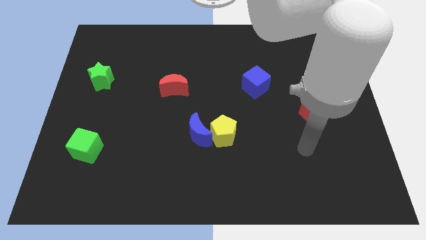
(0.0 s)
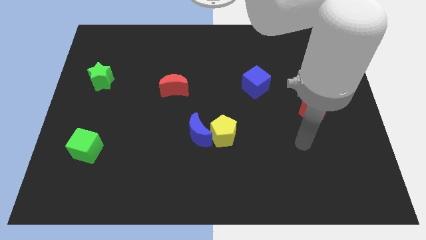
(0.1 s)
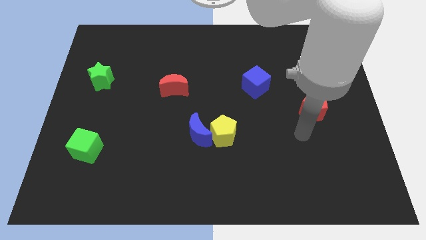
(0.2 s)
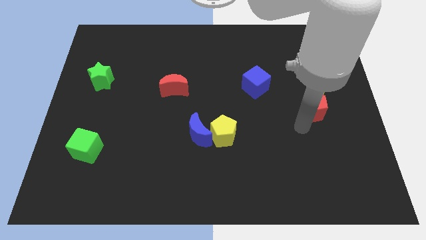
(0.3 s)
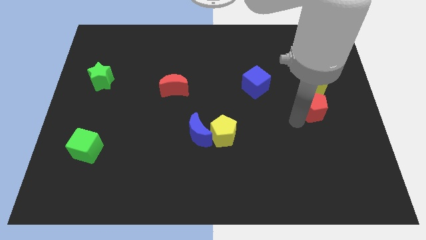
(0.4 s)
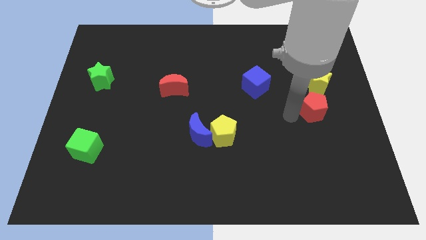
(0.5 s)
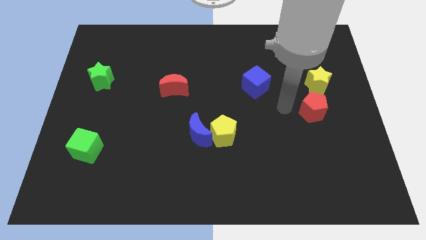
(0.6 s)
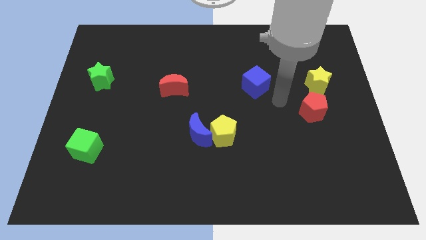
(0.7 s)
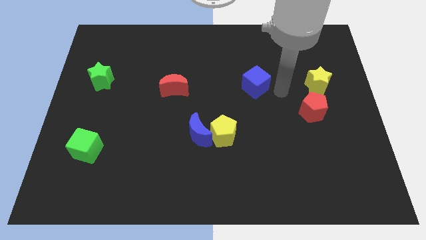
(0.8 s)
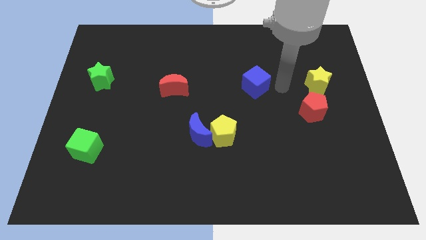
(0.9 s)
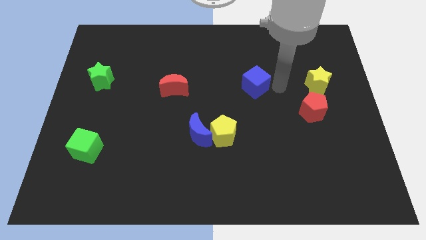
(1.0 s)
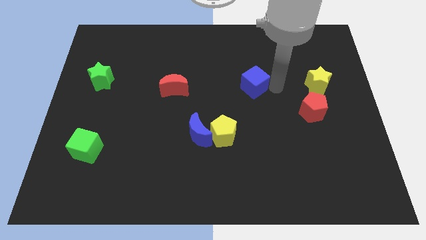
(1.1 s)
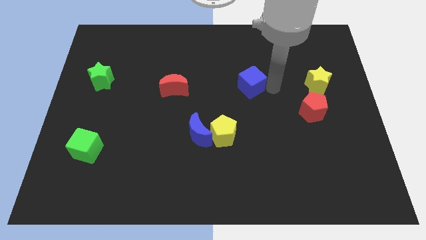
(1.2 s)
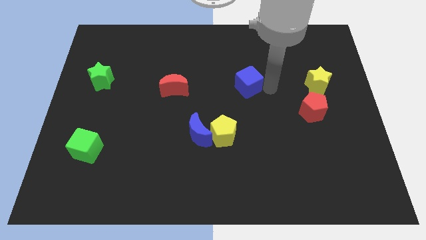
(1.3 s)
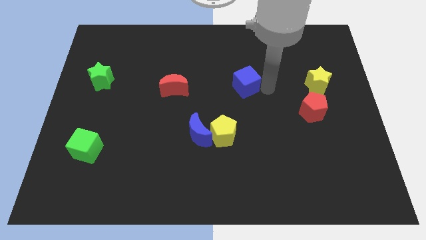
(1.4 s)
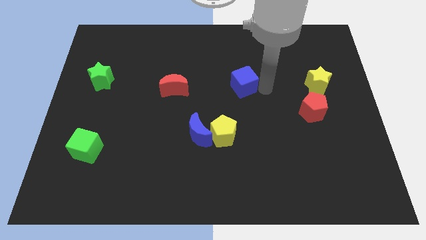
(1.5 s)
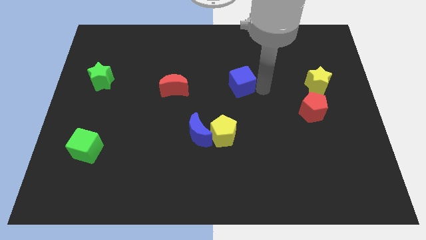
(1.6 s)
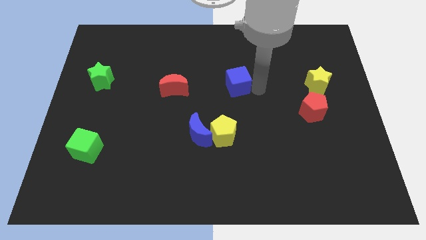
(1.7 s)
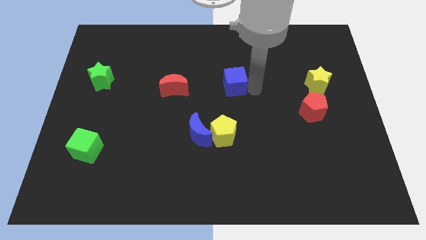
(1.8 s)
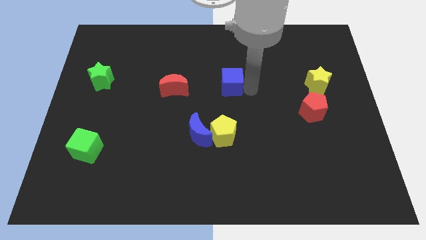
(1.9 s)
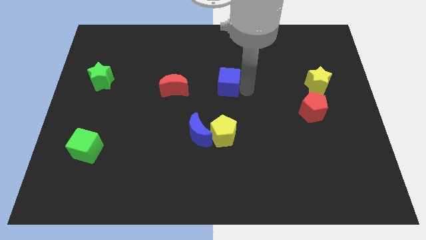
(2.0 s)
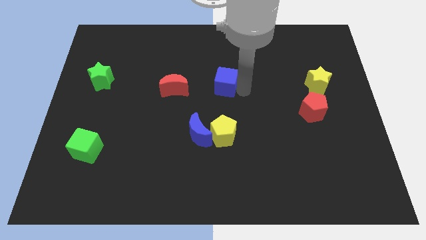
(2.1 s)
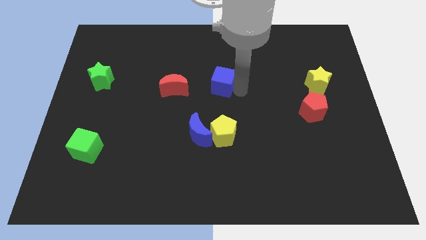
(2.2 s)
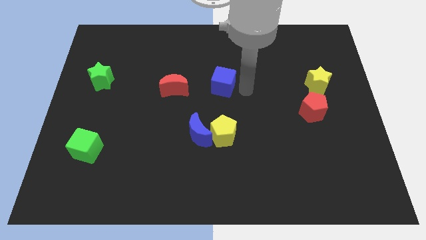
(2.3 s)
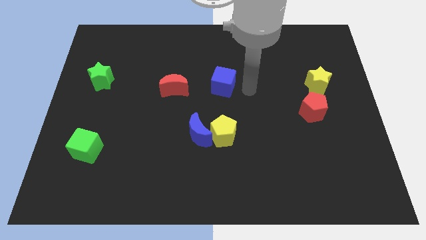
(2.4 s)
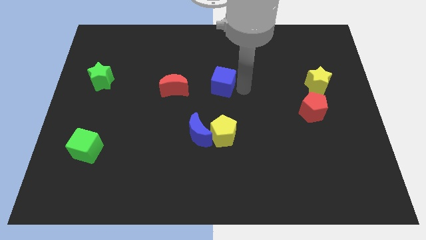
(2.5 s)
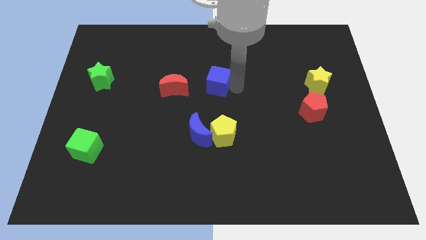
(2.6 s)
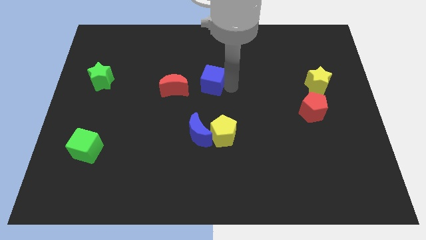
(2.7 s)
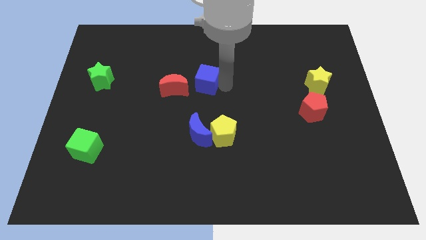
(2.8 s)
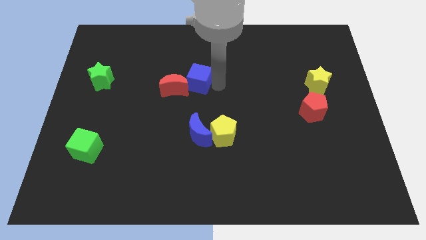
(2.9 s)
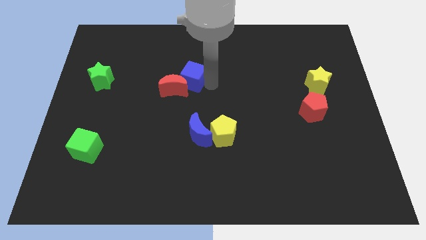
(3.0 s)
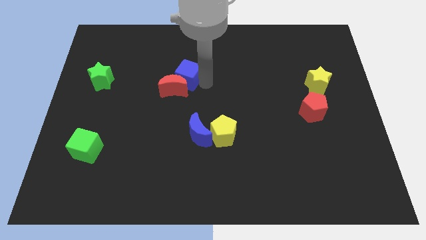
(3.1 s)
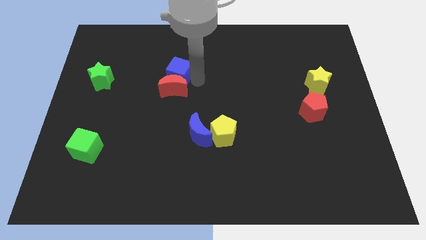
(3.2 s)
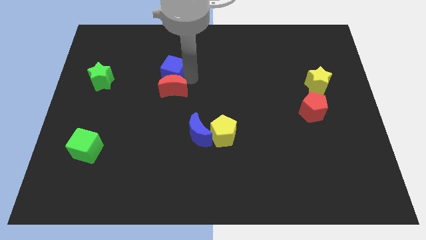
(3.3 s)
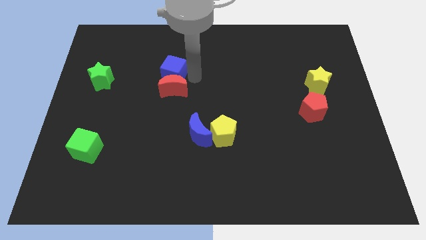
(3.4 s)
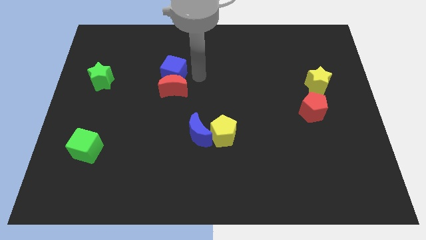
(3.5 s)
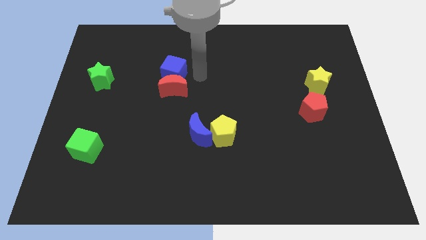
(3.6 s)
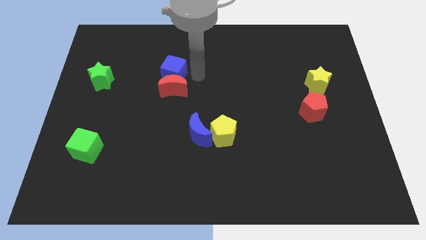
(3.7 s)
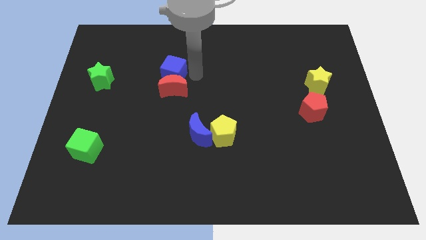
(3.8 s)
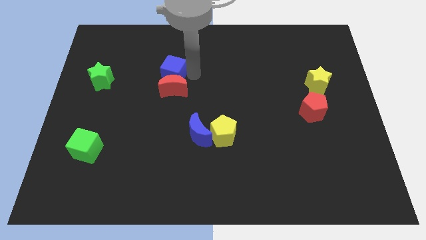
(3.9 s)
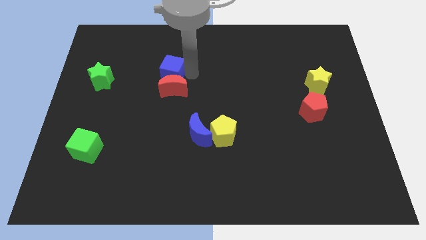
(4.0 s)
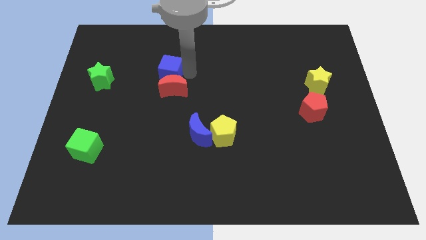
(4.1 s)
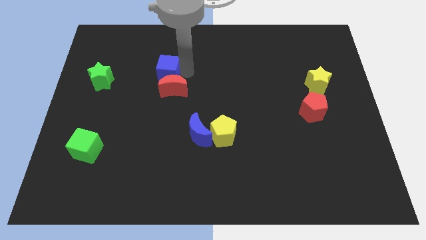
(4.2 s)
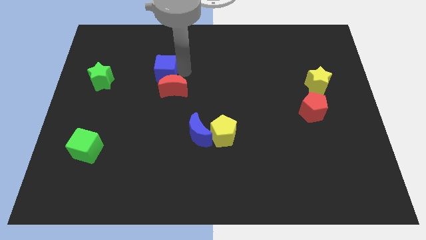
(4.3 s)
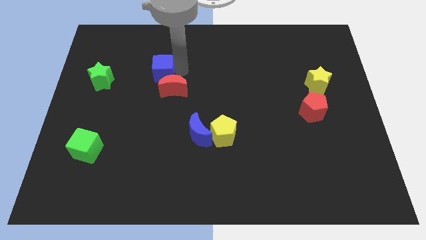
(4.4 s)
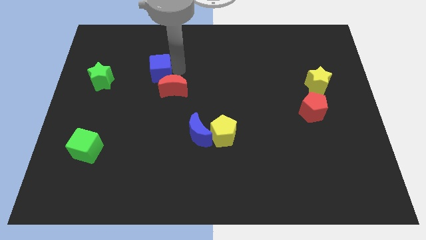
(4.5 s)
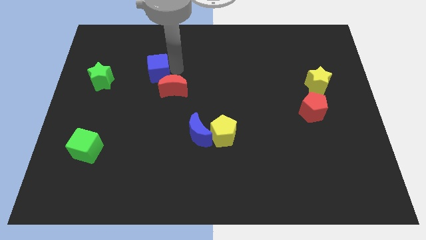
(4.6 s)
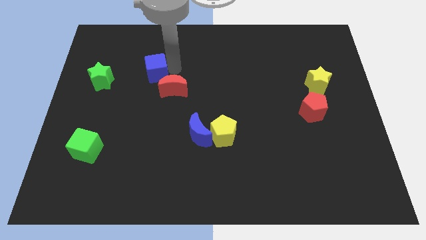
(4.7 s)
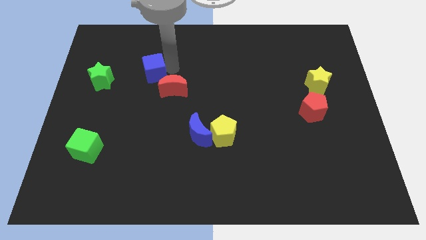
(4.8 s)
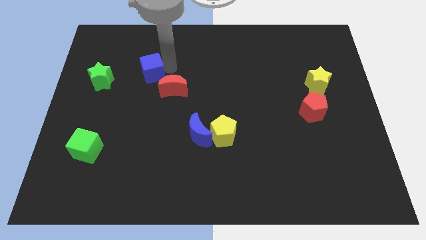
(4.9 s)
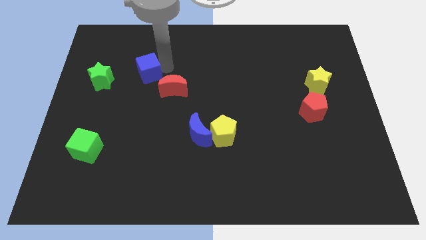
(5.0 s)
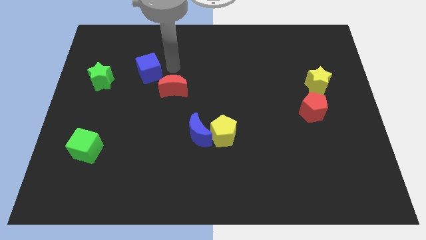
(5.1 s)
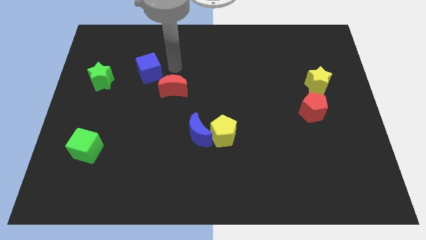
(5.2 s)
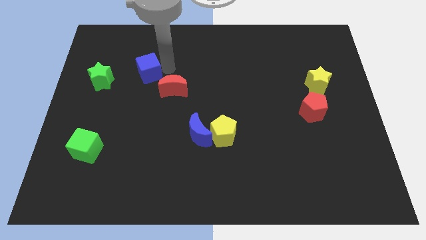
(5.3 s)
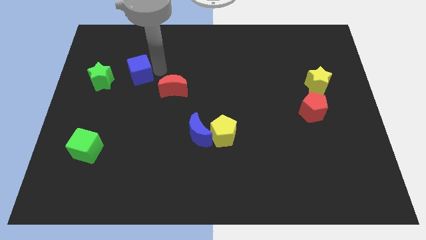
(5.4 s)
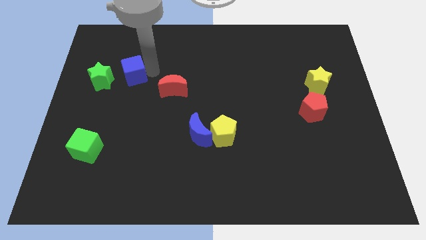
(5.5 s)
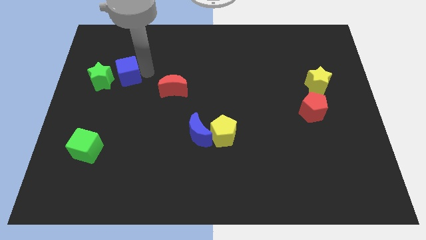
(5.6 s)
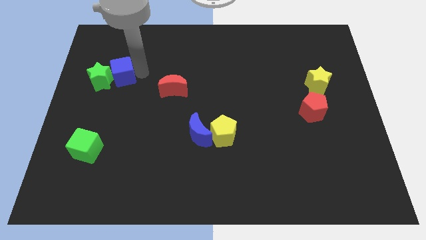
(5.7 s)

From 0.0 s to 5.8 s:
put the blue cube close to the green star
